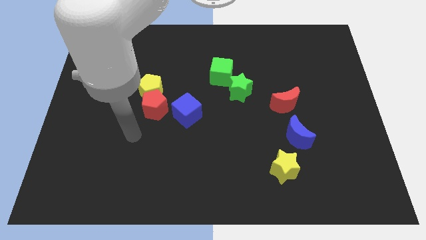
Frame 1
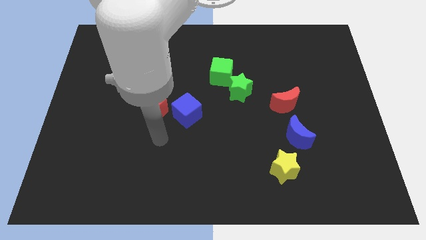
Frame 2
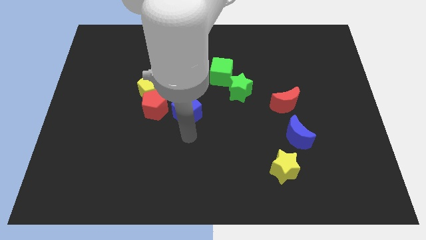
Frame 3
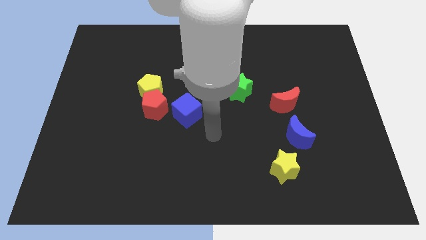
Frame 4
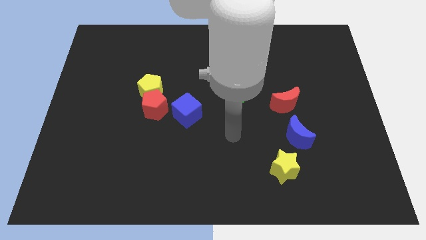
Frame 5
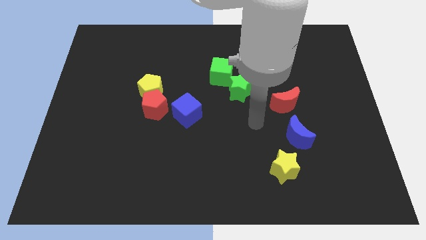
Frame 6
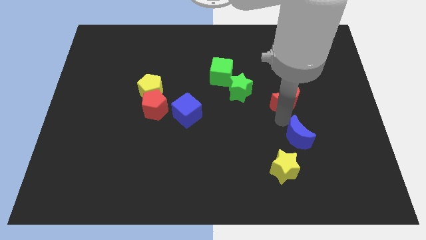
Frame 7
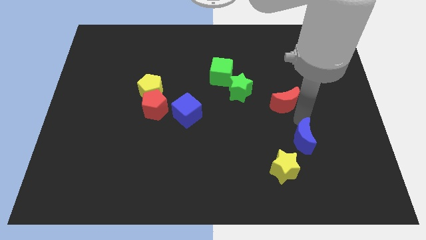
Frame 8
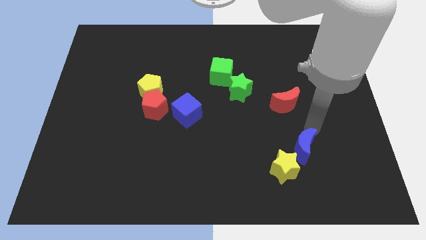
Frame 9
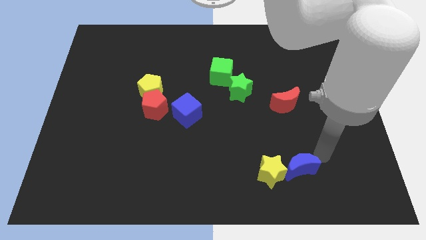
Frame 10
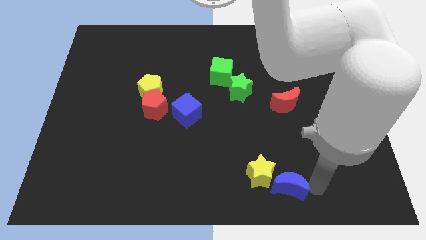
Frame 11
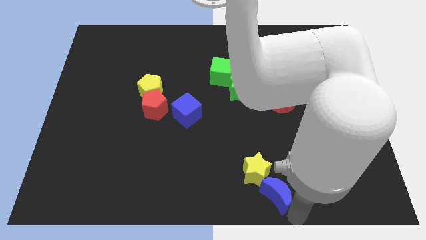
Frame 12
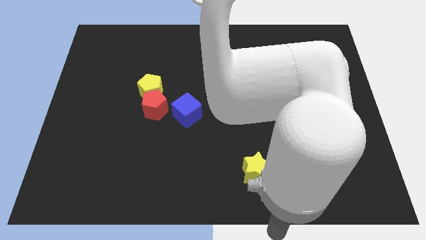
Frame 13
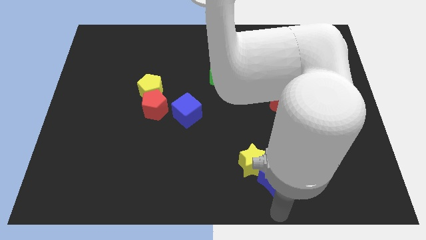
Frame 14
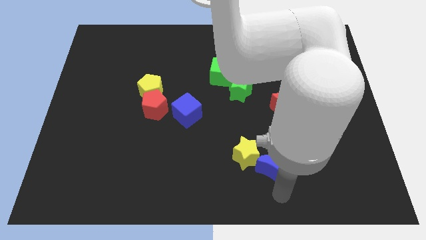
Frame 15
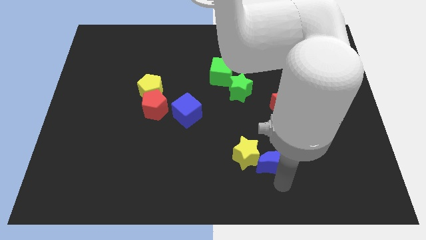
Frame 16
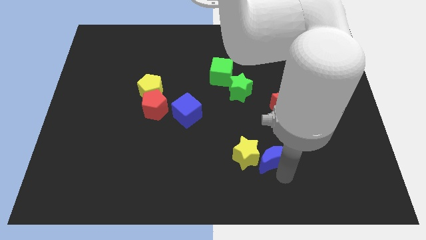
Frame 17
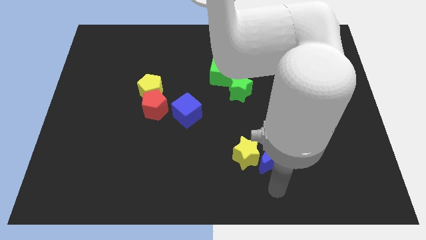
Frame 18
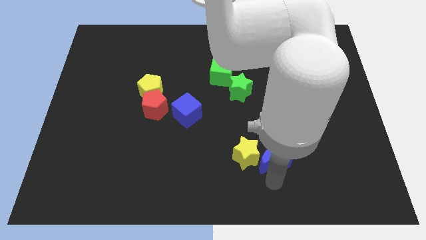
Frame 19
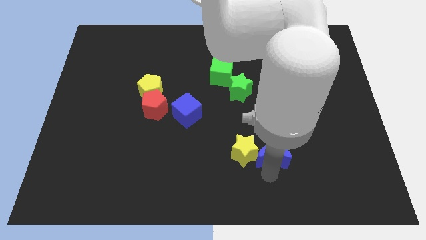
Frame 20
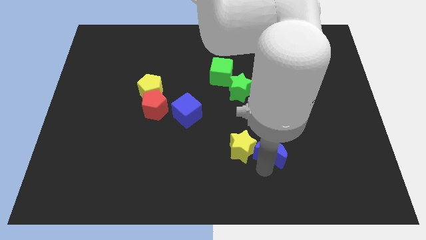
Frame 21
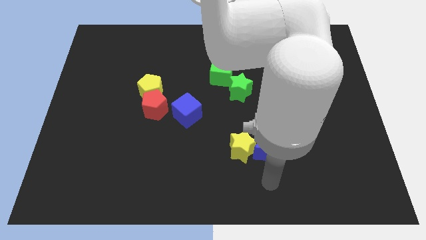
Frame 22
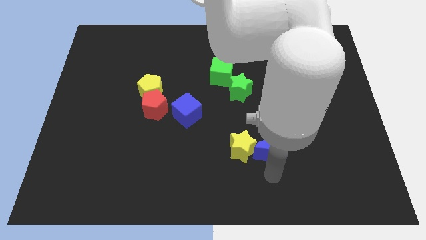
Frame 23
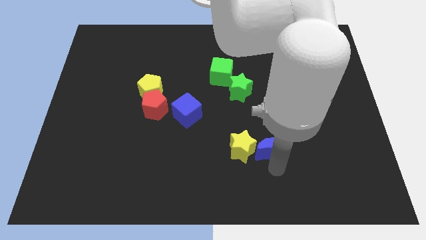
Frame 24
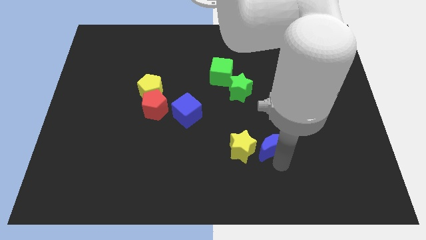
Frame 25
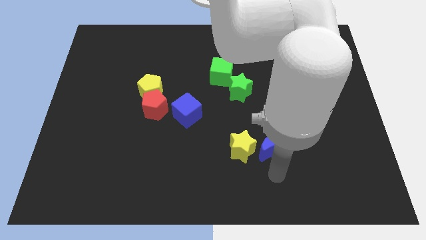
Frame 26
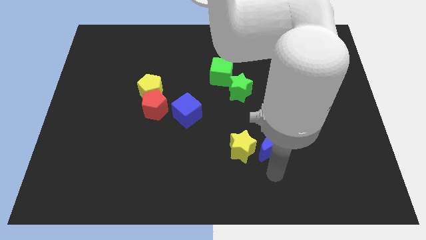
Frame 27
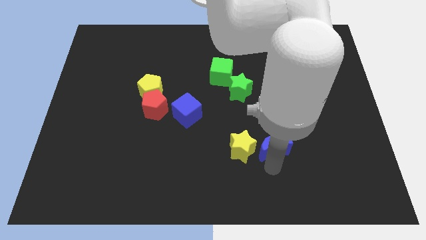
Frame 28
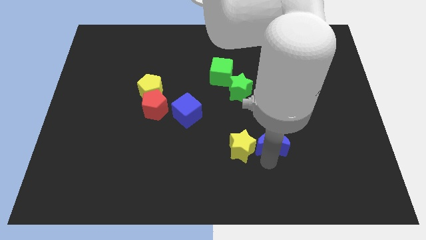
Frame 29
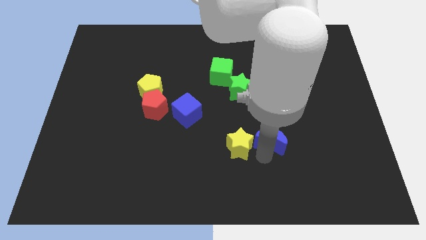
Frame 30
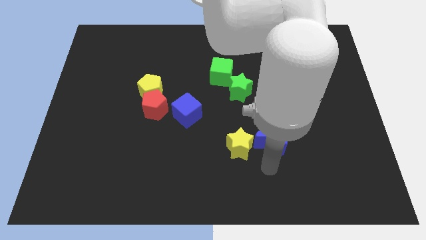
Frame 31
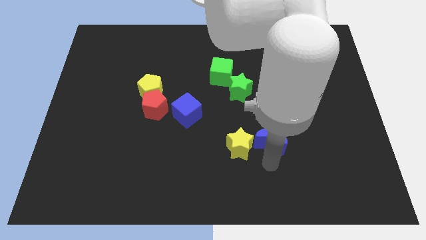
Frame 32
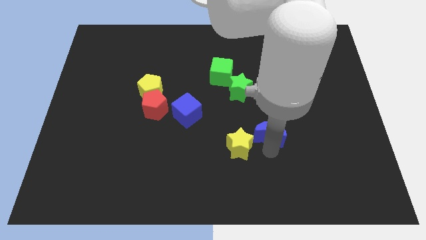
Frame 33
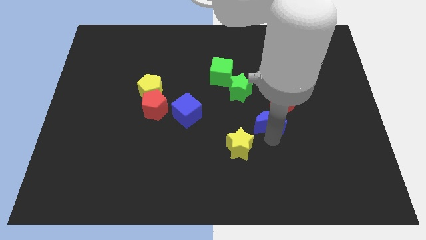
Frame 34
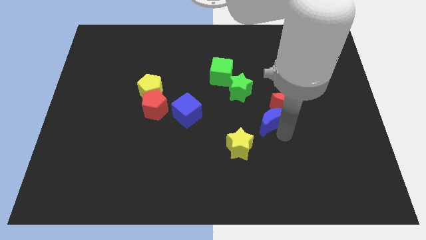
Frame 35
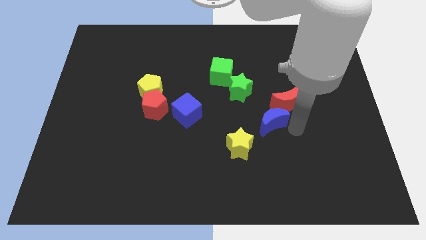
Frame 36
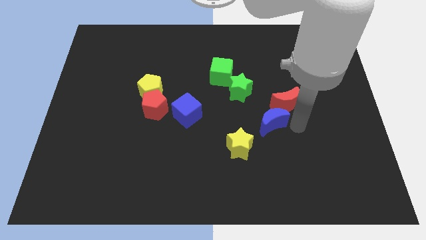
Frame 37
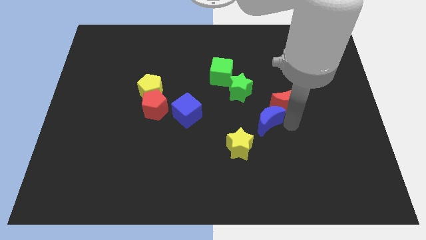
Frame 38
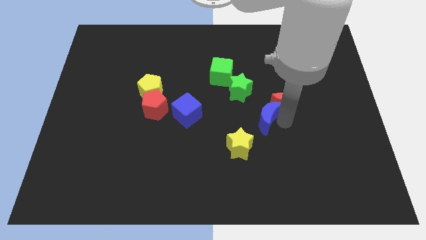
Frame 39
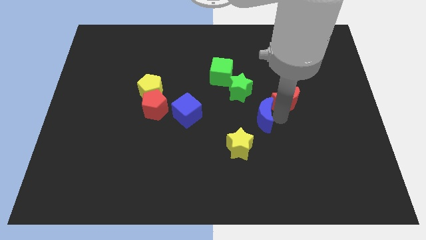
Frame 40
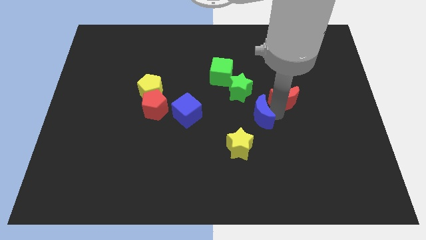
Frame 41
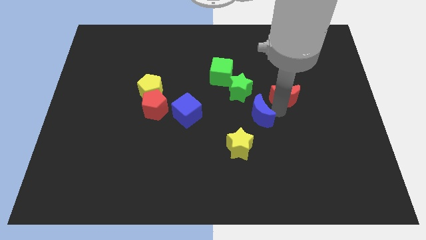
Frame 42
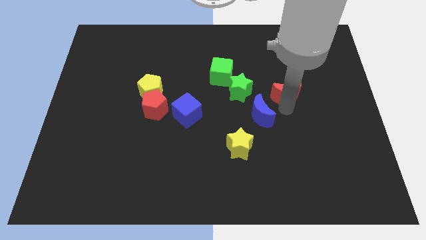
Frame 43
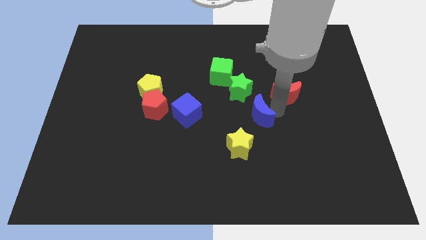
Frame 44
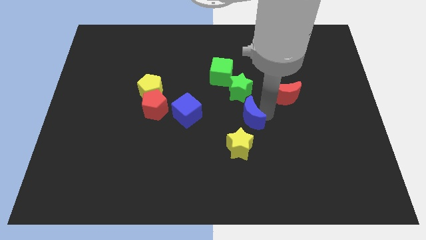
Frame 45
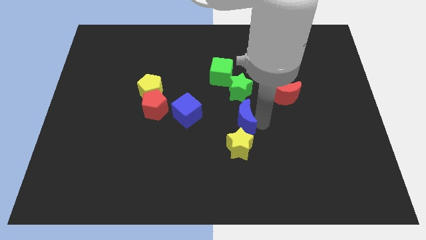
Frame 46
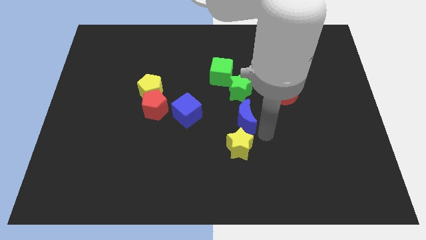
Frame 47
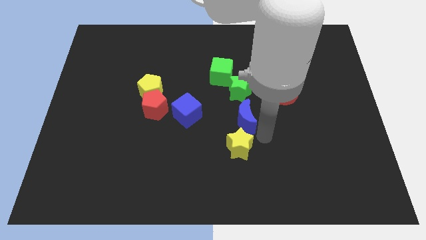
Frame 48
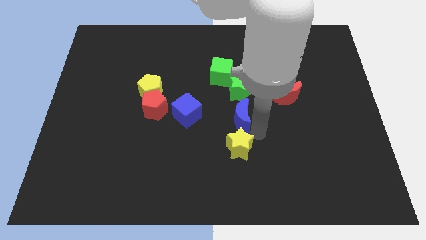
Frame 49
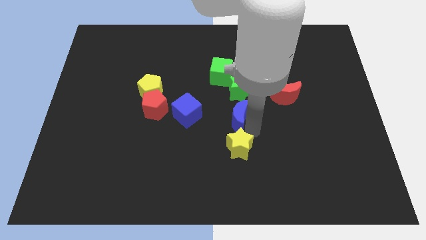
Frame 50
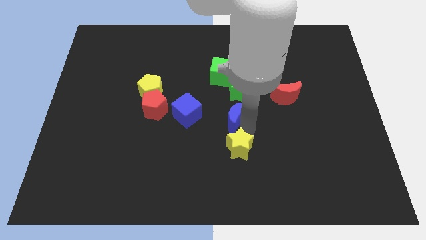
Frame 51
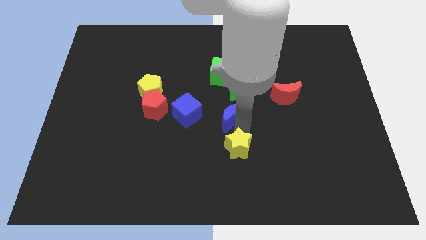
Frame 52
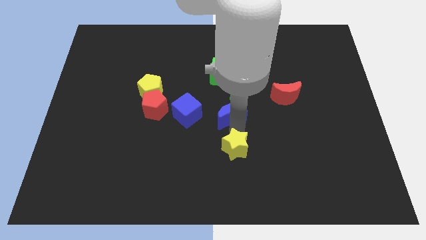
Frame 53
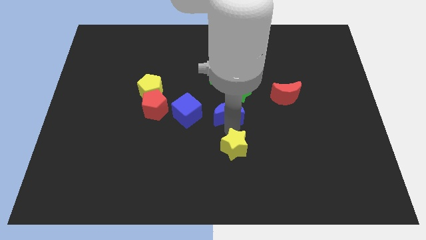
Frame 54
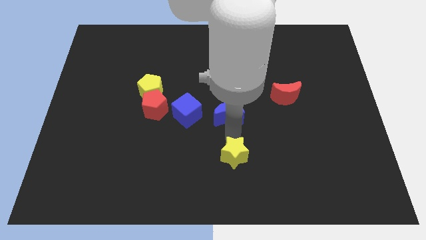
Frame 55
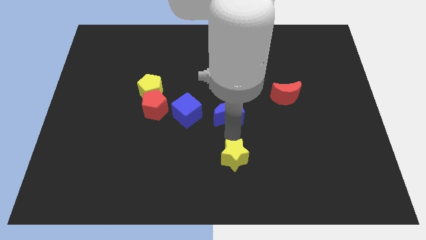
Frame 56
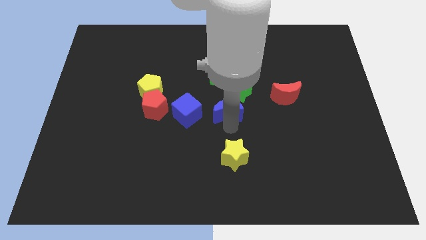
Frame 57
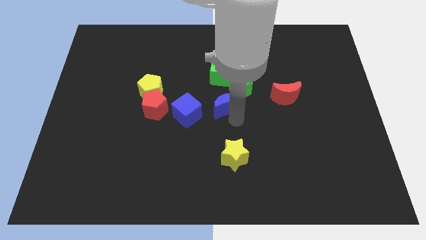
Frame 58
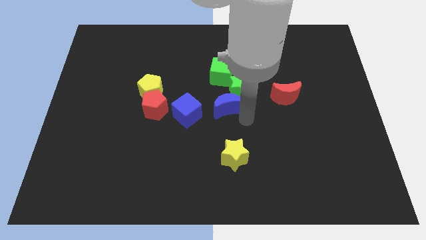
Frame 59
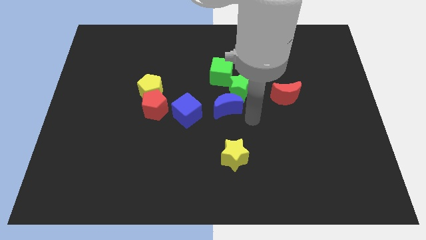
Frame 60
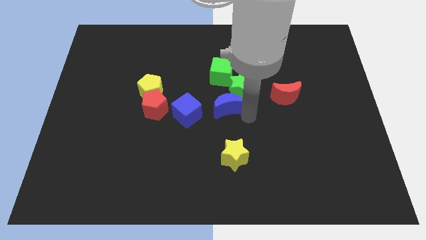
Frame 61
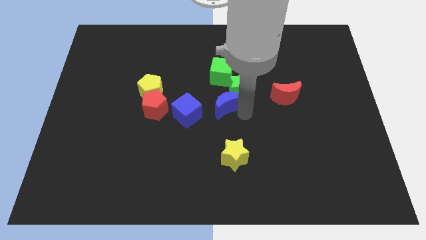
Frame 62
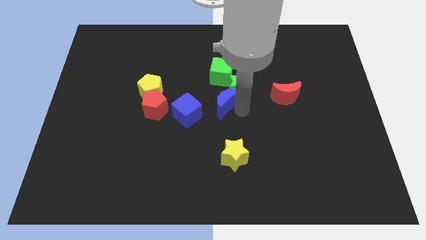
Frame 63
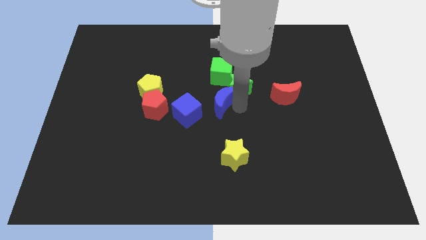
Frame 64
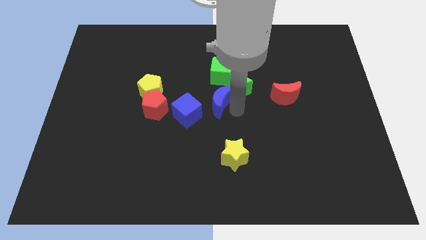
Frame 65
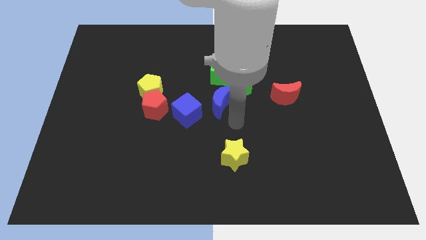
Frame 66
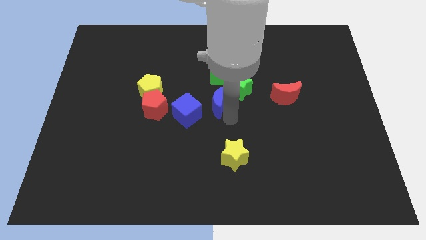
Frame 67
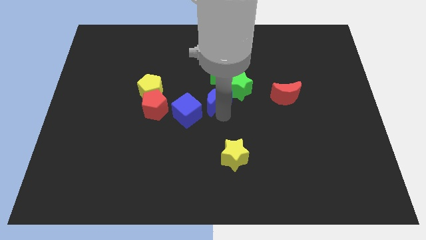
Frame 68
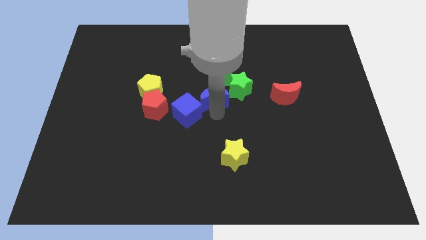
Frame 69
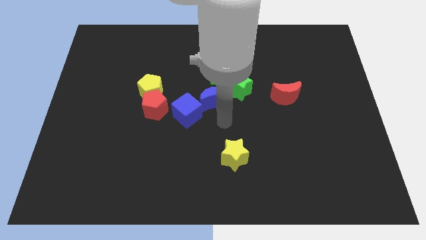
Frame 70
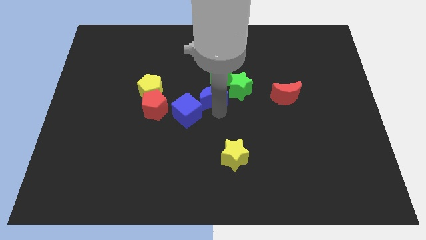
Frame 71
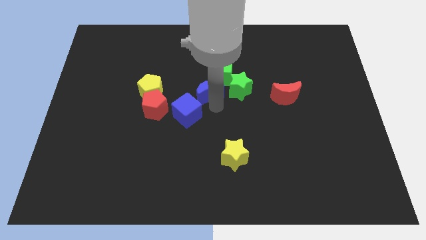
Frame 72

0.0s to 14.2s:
push the blue moon up and left diagonally

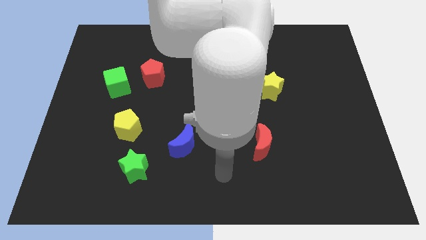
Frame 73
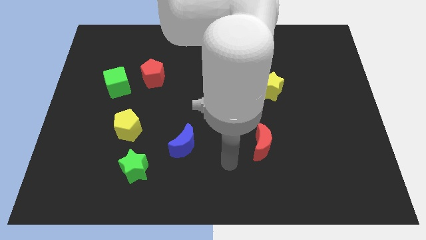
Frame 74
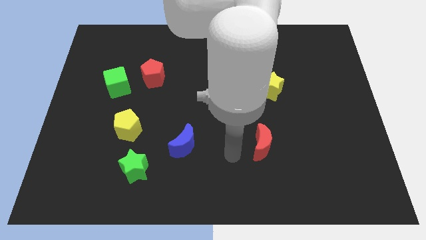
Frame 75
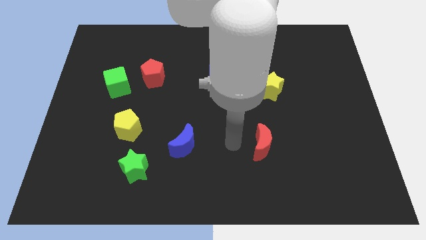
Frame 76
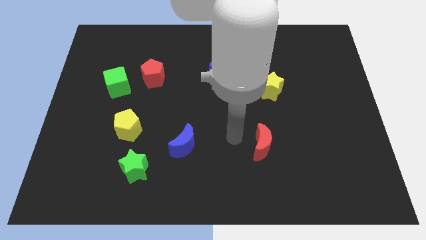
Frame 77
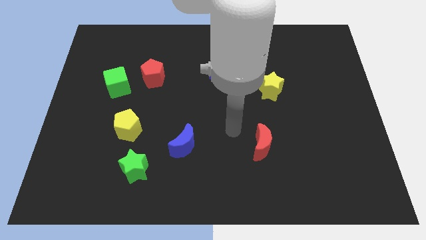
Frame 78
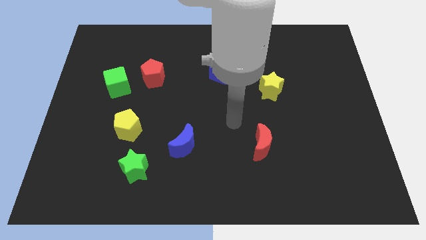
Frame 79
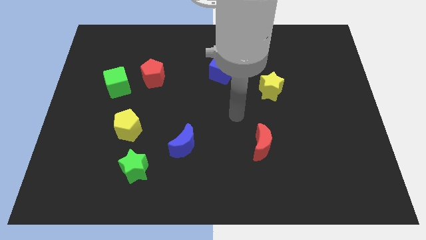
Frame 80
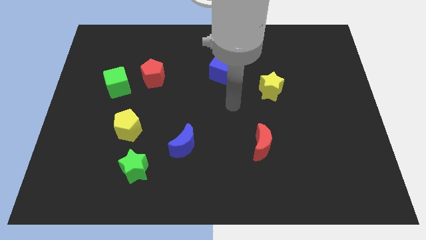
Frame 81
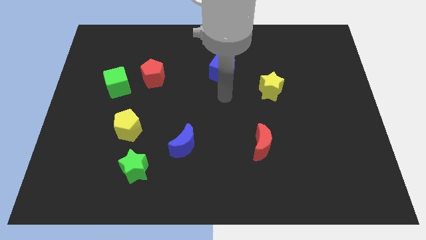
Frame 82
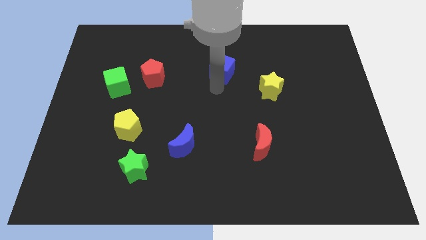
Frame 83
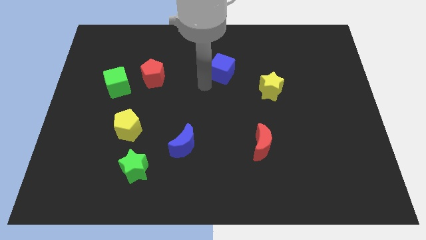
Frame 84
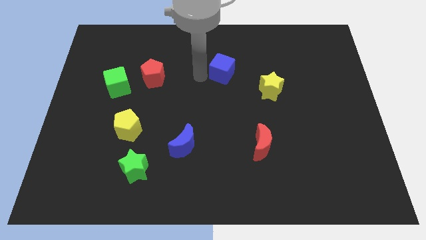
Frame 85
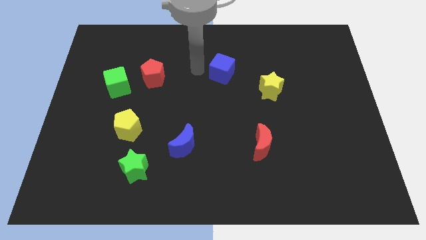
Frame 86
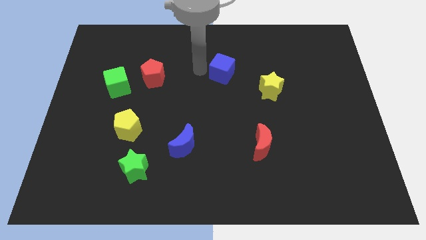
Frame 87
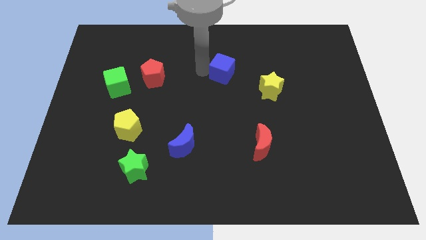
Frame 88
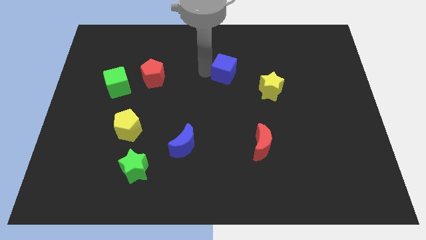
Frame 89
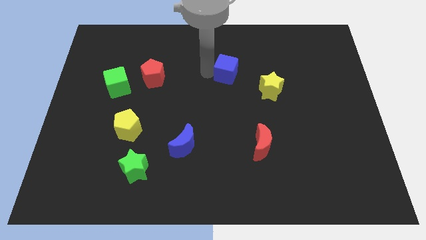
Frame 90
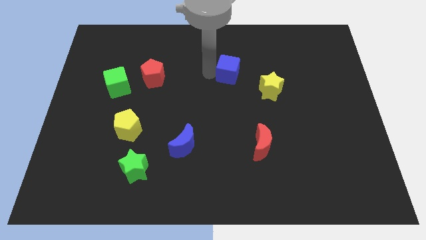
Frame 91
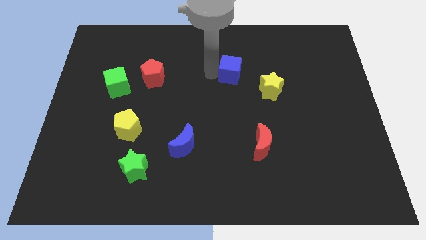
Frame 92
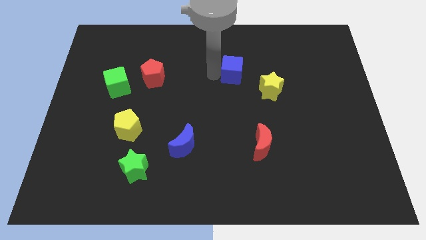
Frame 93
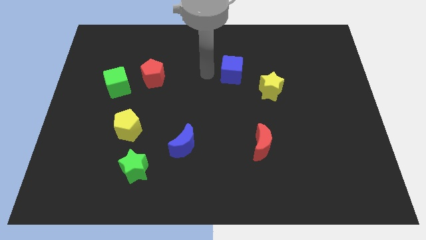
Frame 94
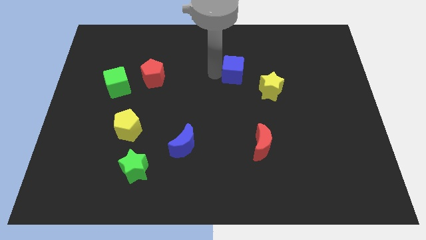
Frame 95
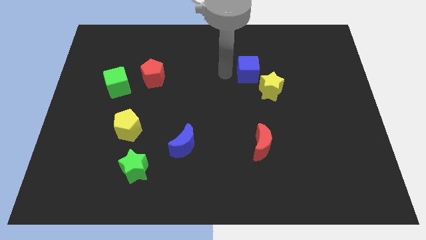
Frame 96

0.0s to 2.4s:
push the blue cube to the right a little bit
